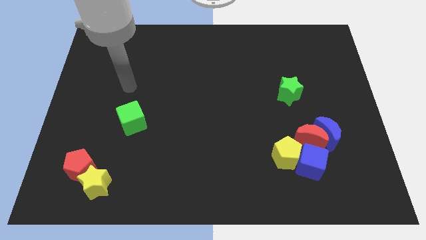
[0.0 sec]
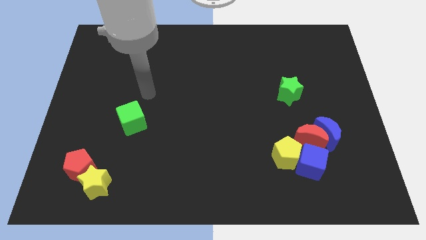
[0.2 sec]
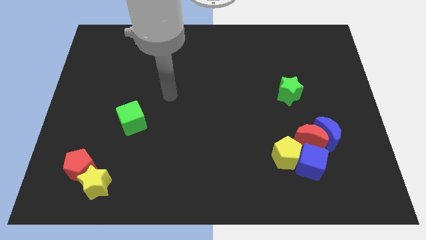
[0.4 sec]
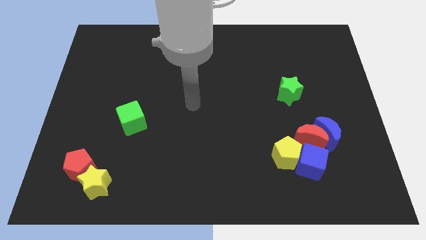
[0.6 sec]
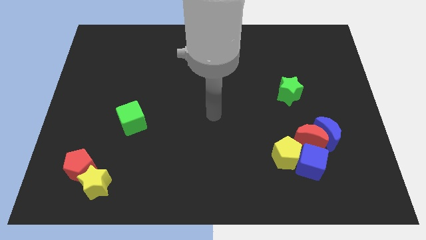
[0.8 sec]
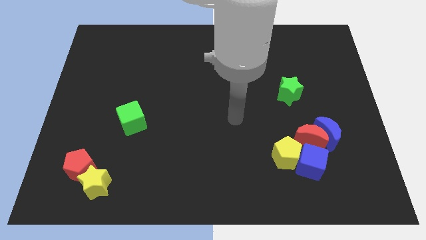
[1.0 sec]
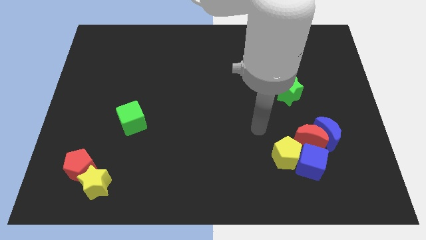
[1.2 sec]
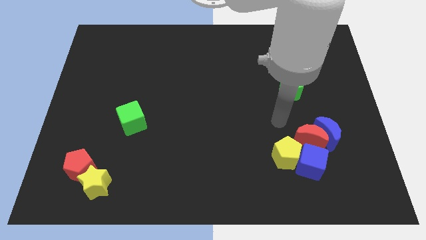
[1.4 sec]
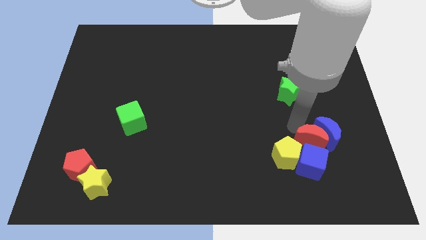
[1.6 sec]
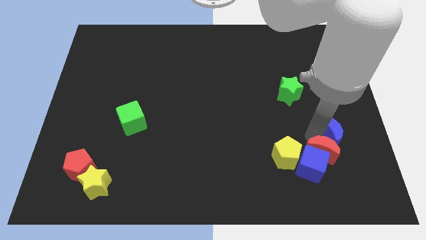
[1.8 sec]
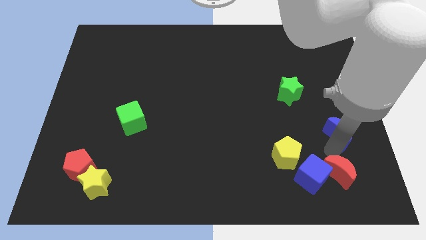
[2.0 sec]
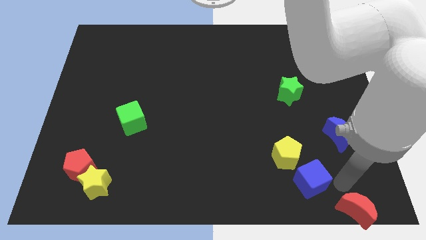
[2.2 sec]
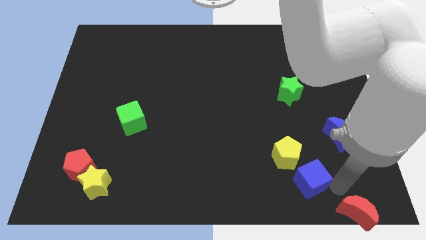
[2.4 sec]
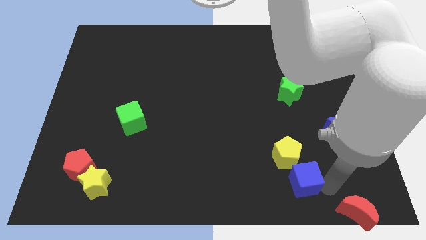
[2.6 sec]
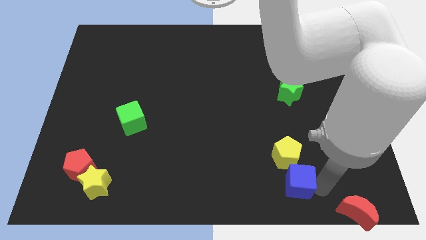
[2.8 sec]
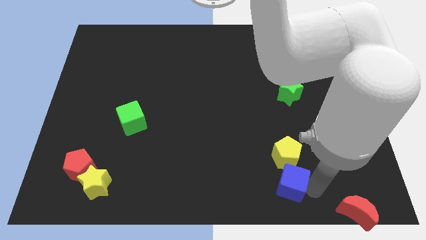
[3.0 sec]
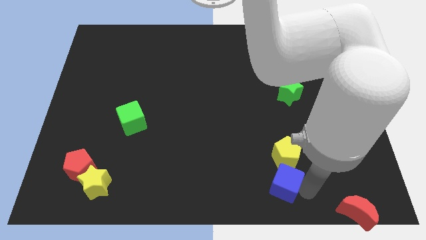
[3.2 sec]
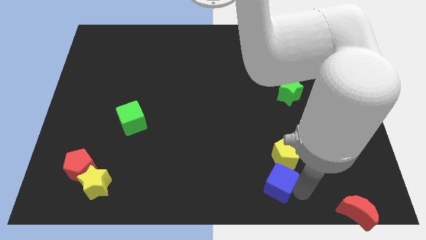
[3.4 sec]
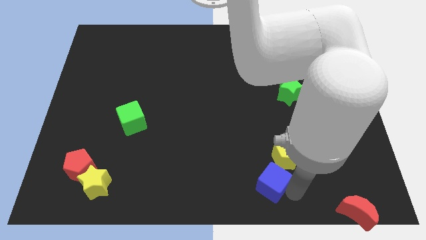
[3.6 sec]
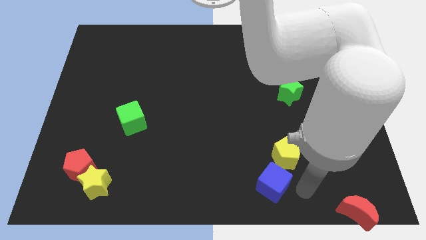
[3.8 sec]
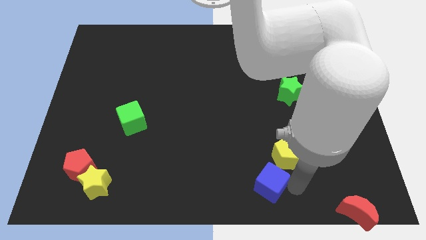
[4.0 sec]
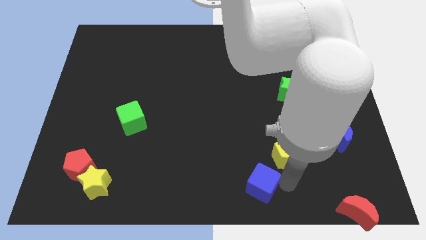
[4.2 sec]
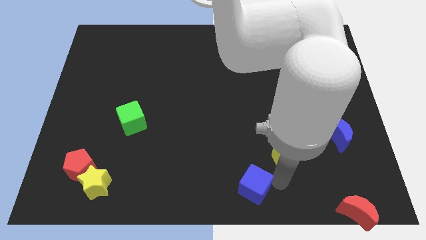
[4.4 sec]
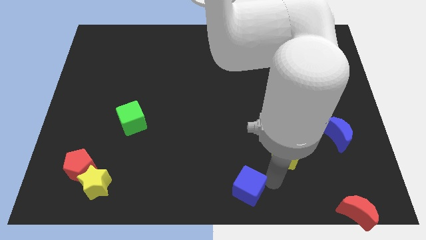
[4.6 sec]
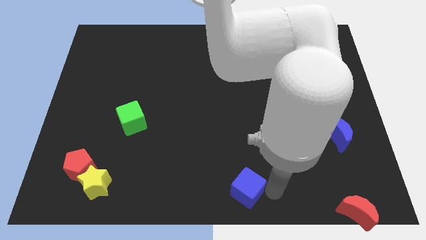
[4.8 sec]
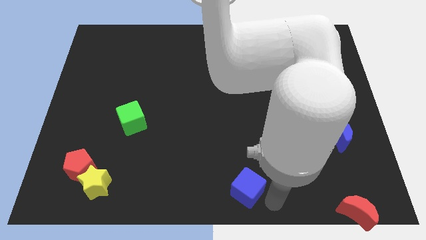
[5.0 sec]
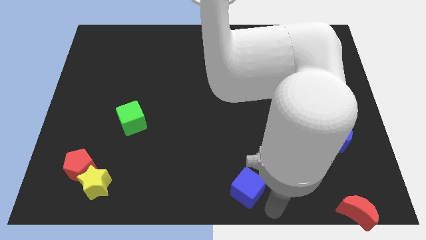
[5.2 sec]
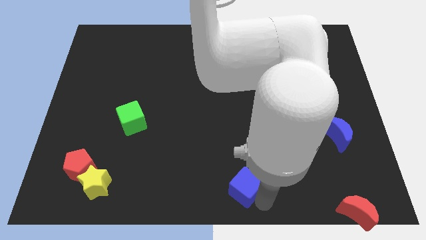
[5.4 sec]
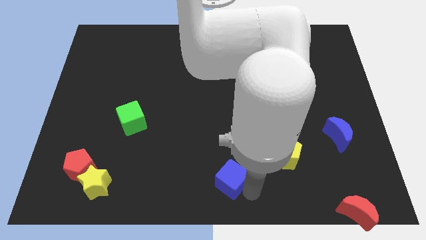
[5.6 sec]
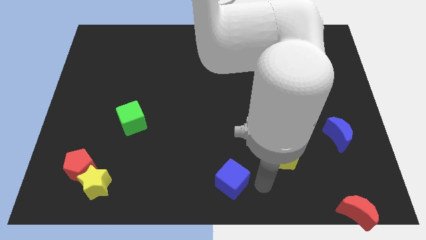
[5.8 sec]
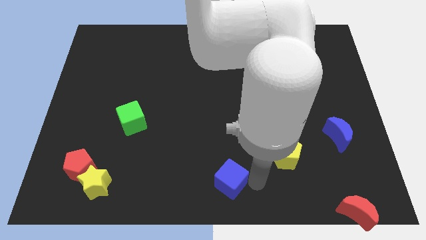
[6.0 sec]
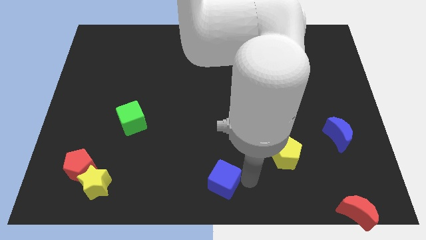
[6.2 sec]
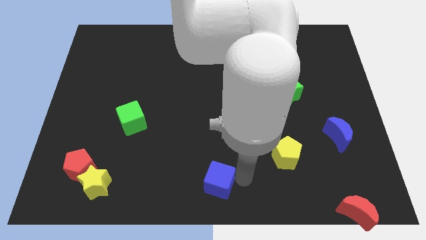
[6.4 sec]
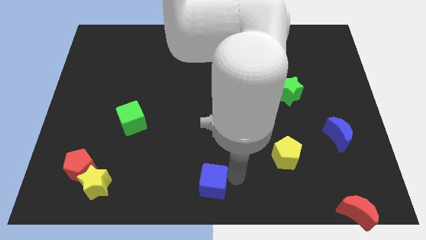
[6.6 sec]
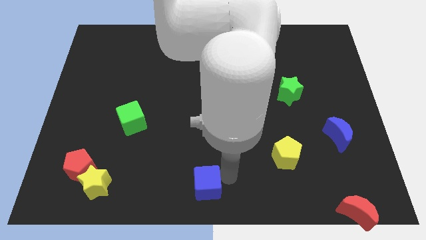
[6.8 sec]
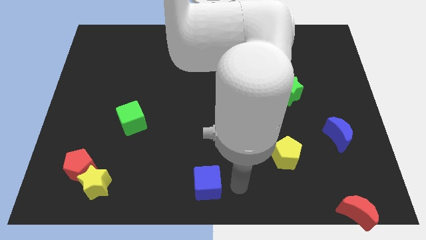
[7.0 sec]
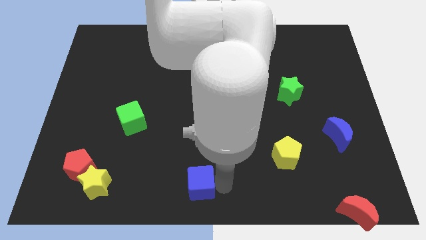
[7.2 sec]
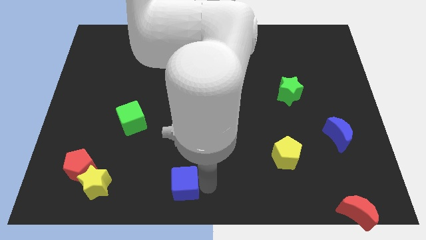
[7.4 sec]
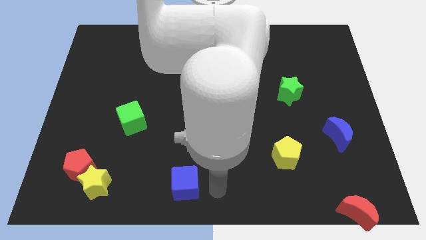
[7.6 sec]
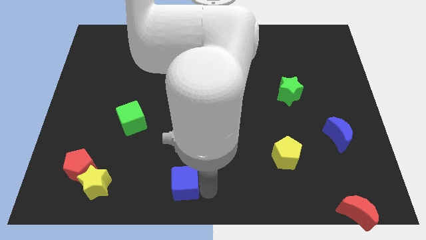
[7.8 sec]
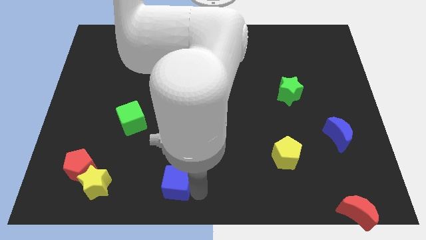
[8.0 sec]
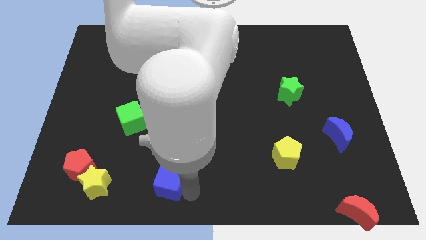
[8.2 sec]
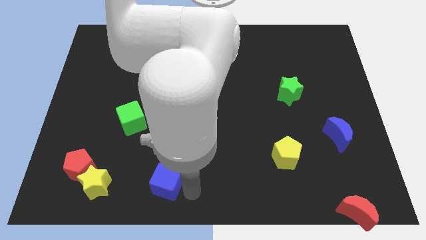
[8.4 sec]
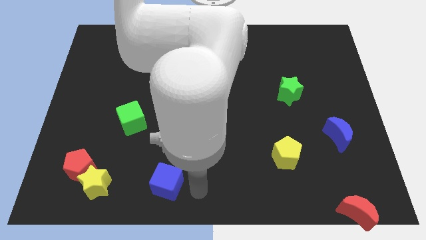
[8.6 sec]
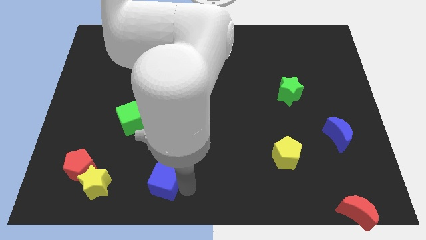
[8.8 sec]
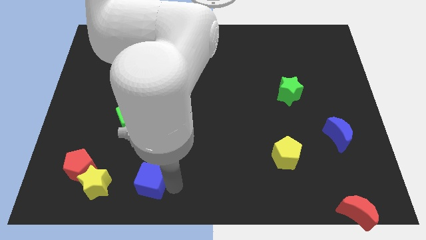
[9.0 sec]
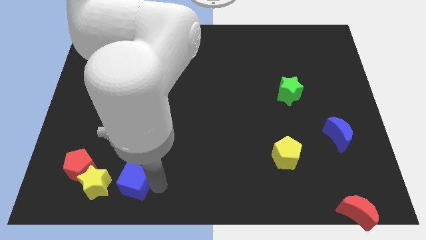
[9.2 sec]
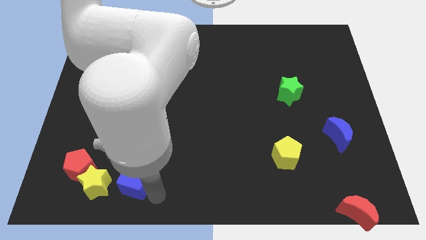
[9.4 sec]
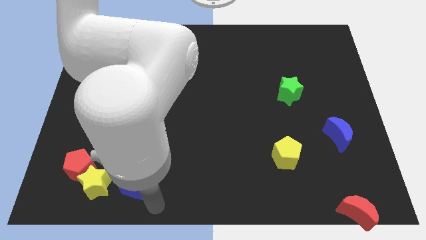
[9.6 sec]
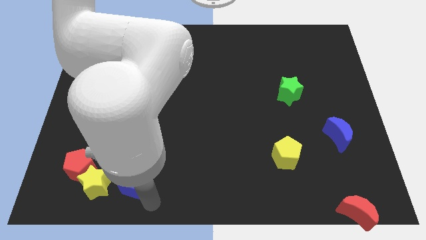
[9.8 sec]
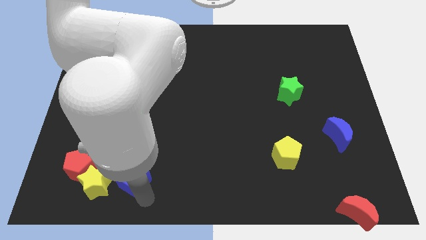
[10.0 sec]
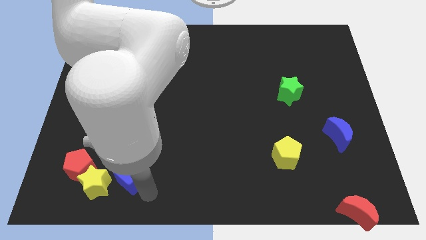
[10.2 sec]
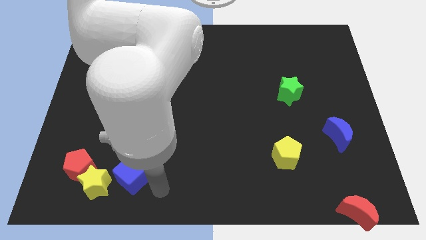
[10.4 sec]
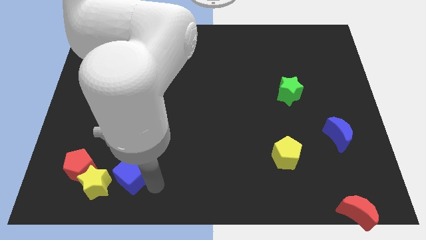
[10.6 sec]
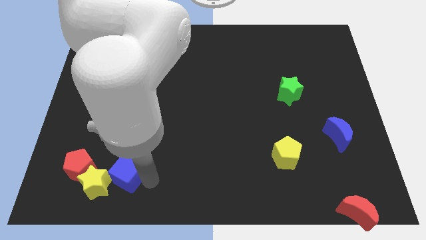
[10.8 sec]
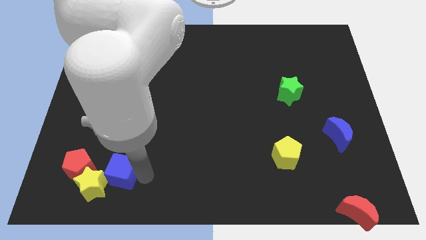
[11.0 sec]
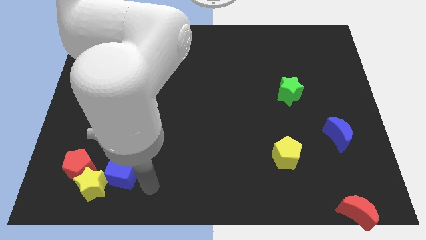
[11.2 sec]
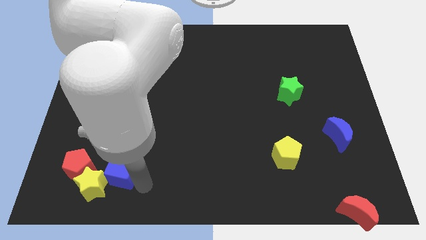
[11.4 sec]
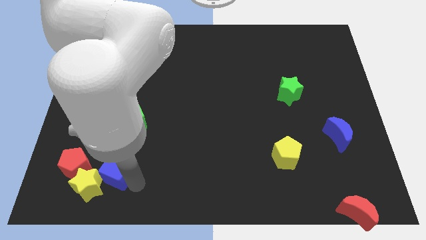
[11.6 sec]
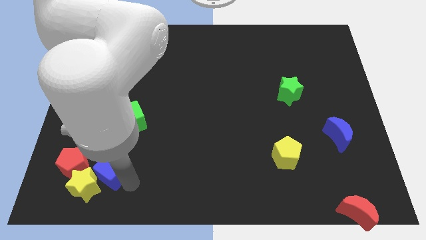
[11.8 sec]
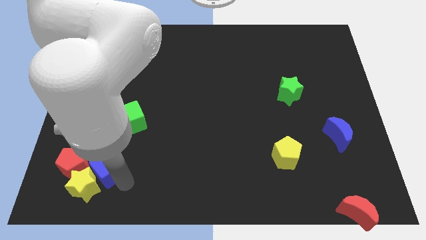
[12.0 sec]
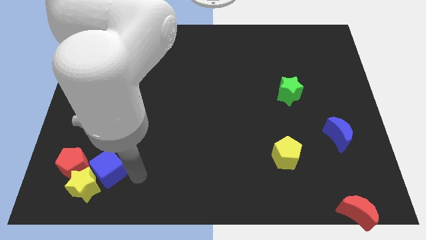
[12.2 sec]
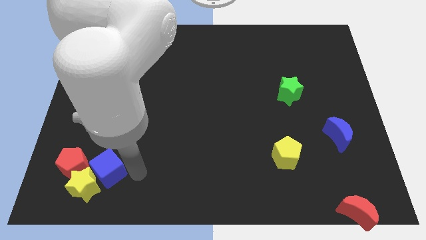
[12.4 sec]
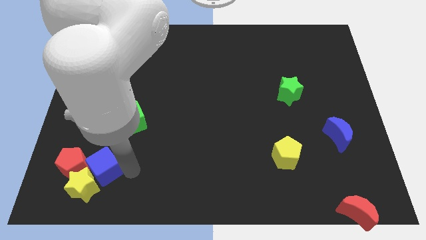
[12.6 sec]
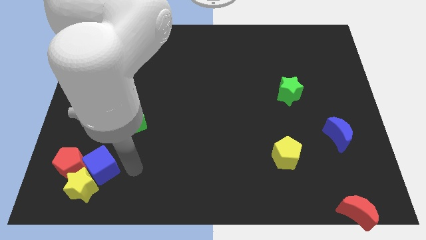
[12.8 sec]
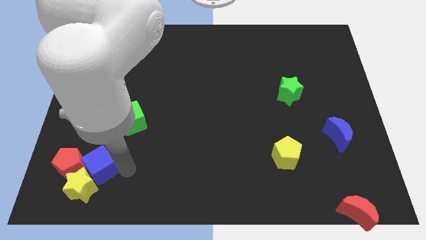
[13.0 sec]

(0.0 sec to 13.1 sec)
slide the blue cube next to the red pentagon

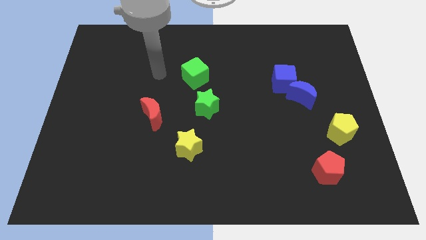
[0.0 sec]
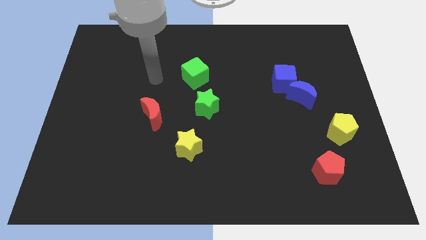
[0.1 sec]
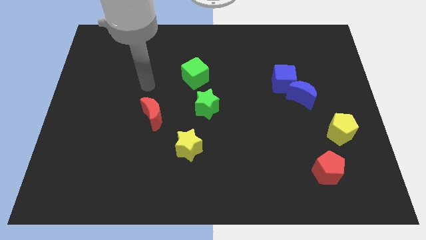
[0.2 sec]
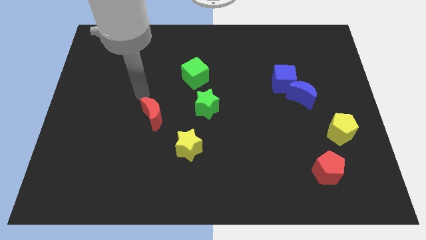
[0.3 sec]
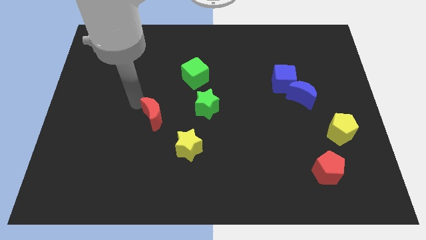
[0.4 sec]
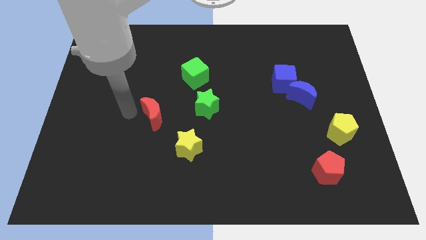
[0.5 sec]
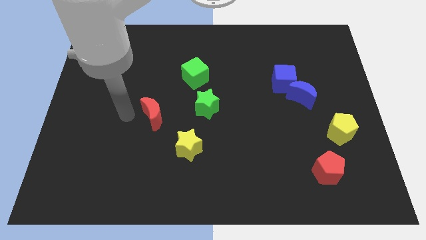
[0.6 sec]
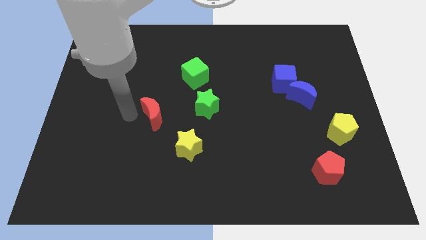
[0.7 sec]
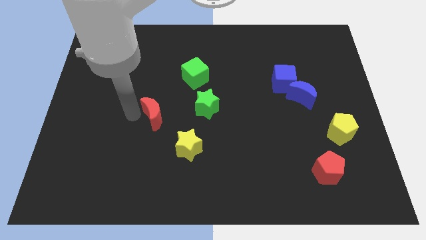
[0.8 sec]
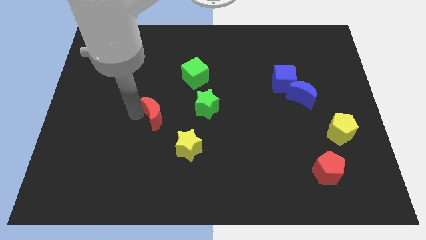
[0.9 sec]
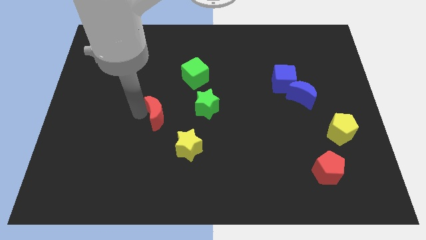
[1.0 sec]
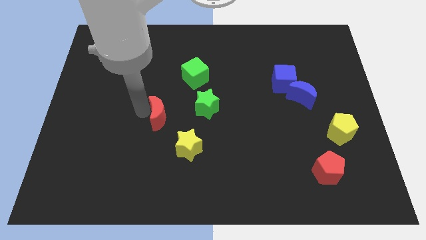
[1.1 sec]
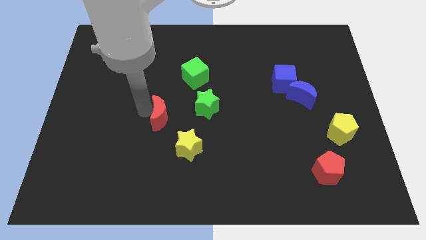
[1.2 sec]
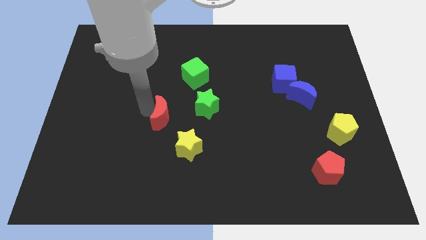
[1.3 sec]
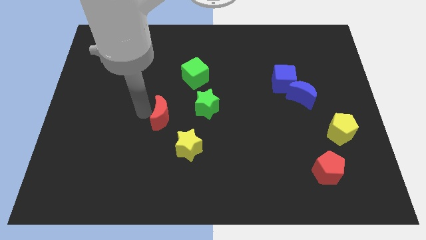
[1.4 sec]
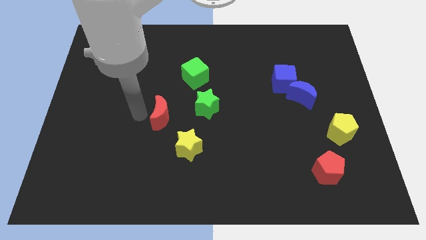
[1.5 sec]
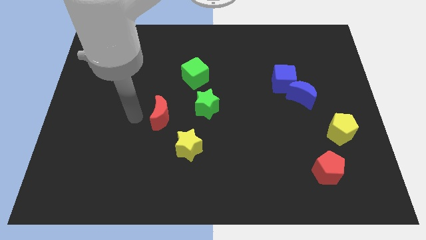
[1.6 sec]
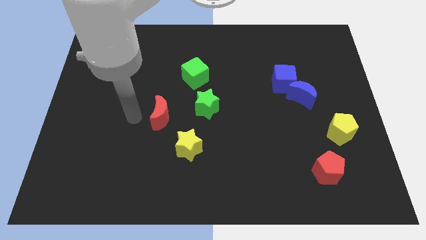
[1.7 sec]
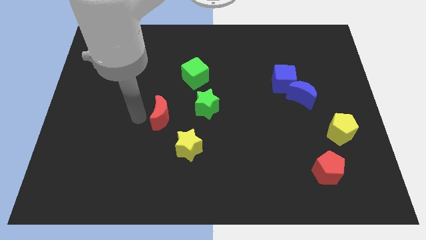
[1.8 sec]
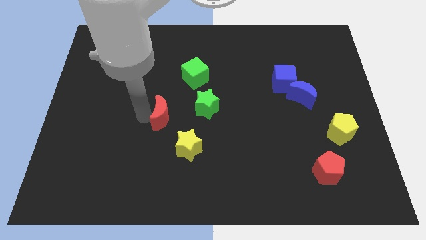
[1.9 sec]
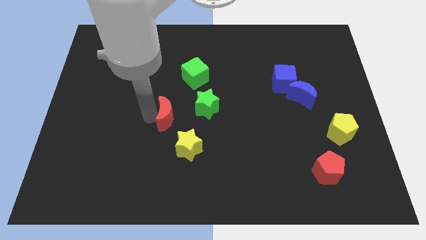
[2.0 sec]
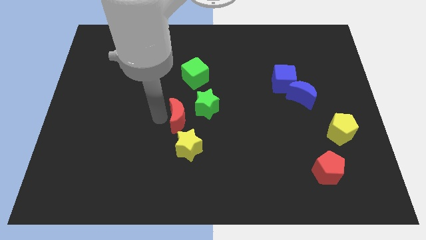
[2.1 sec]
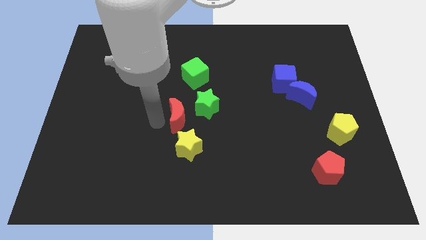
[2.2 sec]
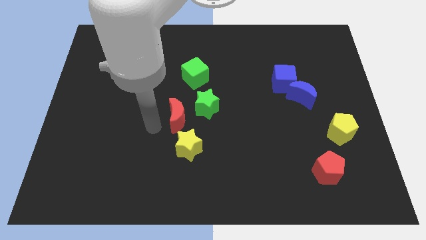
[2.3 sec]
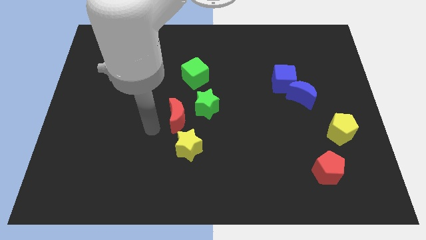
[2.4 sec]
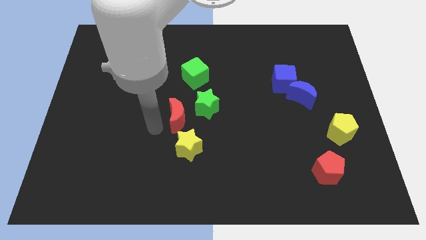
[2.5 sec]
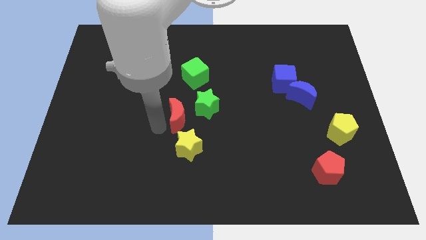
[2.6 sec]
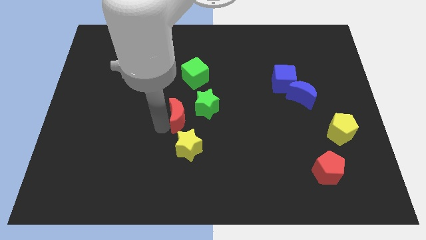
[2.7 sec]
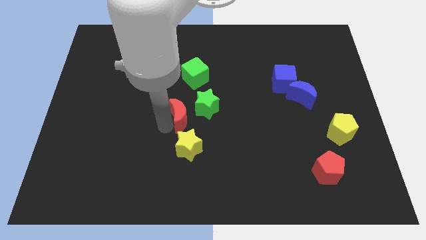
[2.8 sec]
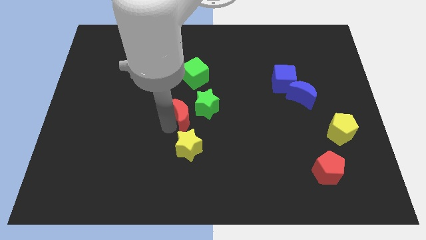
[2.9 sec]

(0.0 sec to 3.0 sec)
slide the red moon close to the green star
